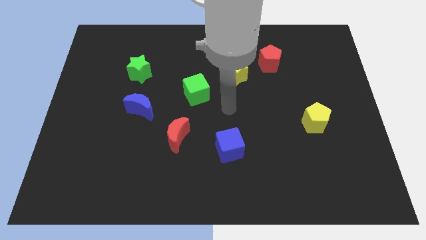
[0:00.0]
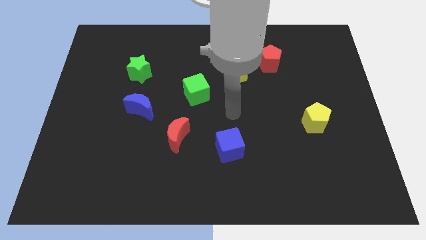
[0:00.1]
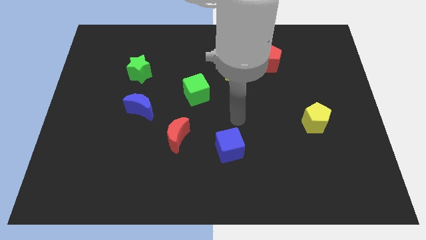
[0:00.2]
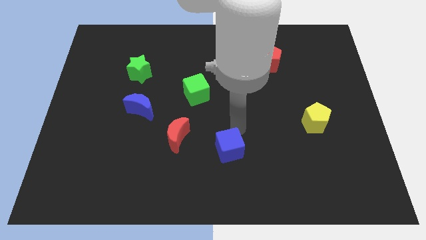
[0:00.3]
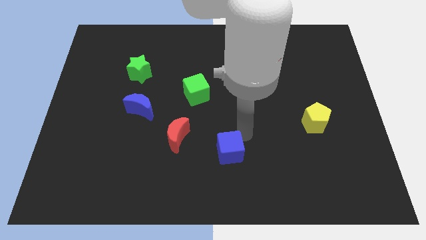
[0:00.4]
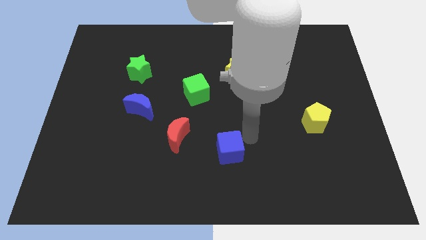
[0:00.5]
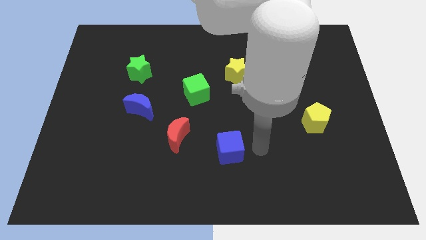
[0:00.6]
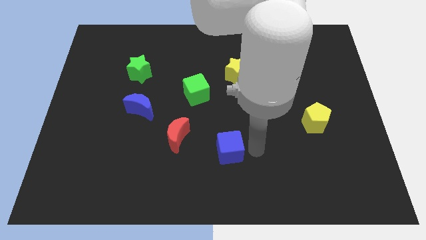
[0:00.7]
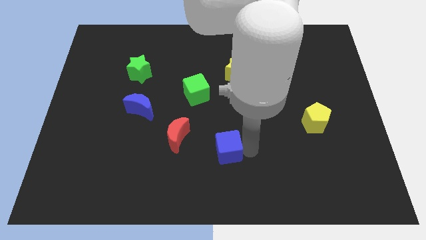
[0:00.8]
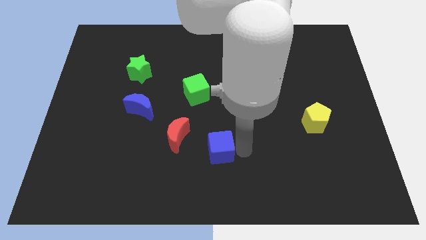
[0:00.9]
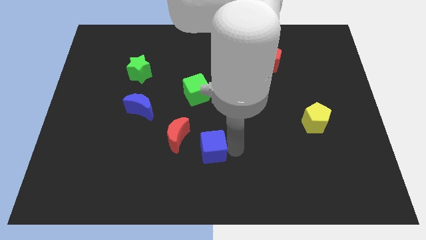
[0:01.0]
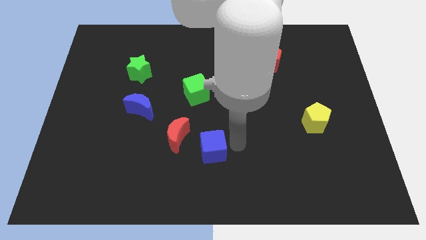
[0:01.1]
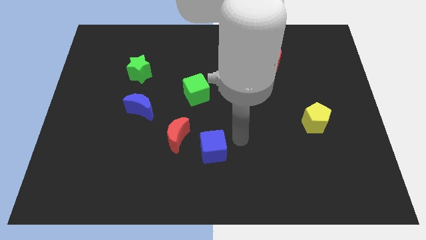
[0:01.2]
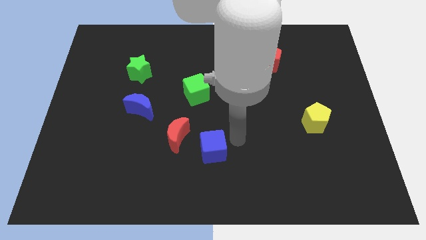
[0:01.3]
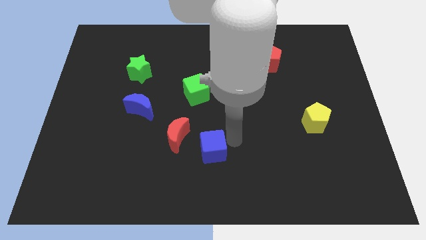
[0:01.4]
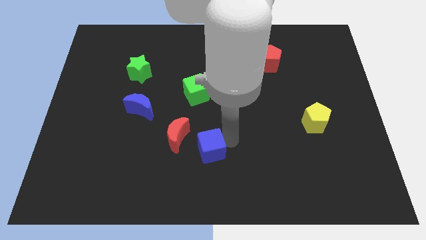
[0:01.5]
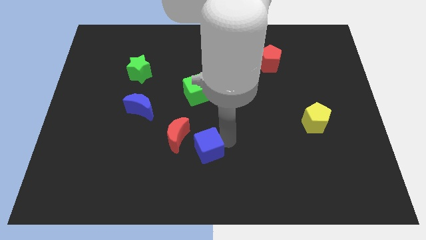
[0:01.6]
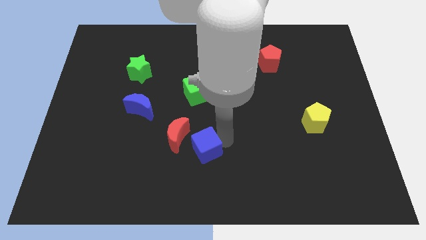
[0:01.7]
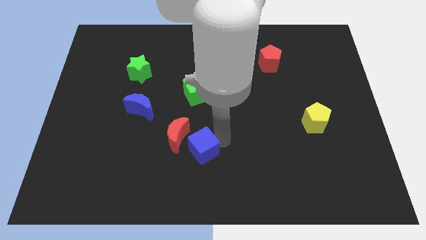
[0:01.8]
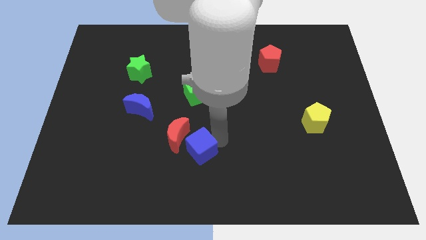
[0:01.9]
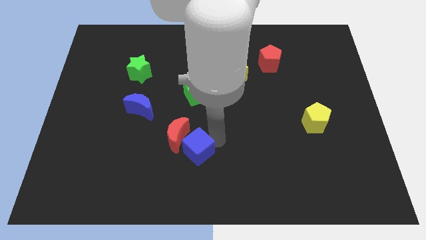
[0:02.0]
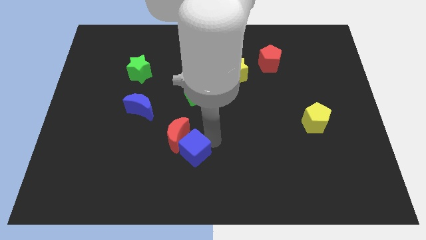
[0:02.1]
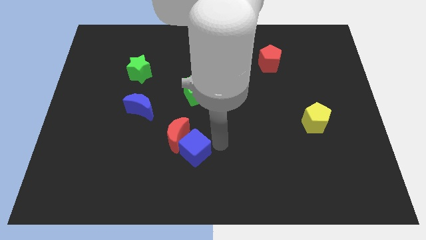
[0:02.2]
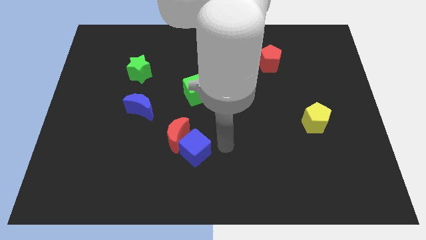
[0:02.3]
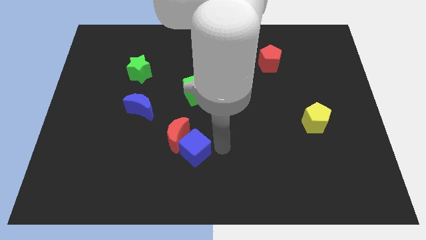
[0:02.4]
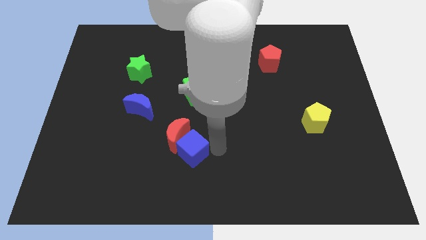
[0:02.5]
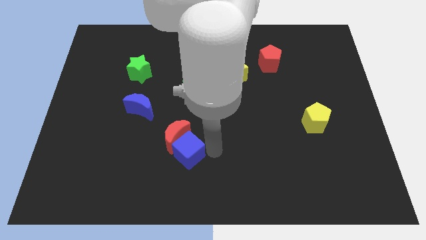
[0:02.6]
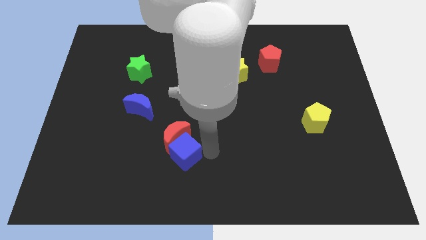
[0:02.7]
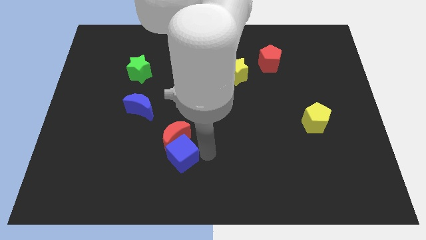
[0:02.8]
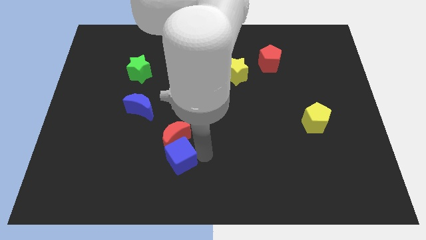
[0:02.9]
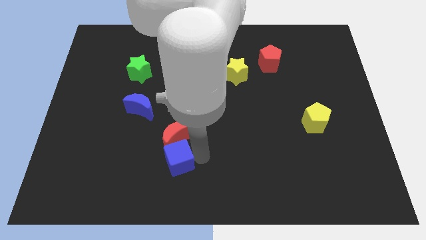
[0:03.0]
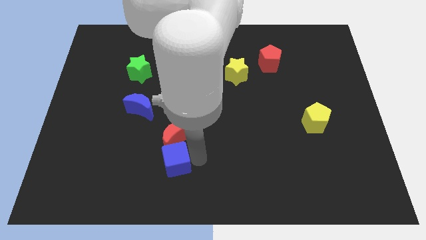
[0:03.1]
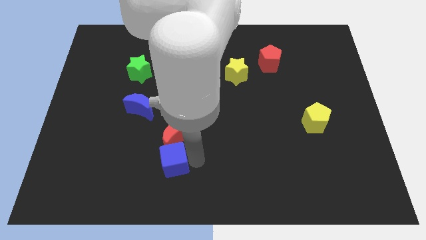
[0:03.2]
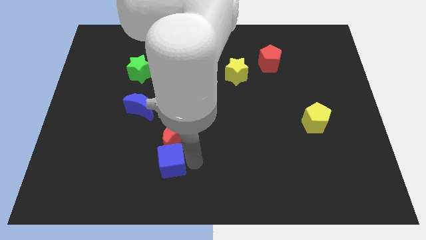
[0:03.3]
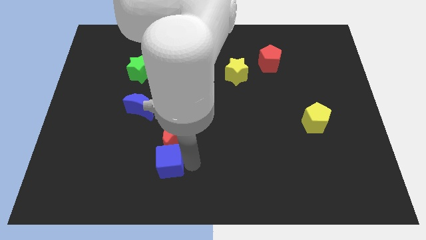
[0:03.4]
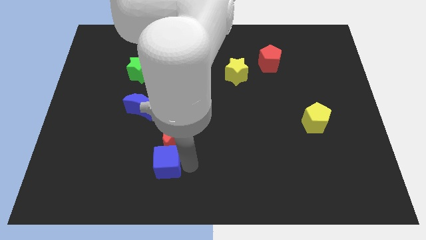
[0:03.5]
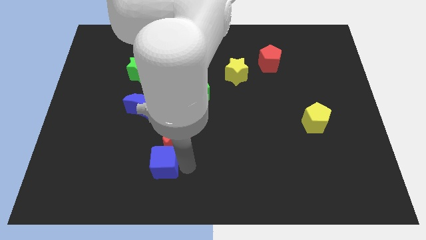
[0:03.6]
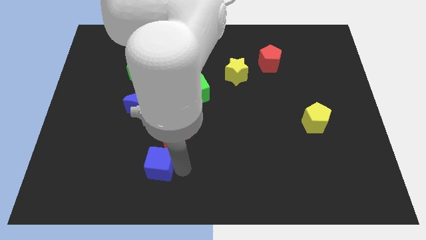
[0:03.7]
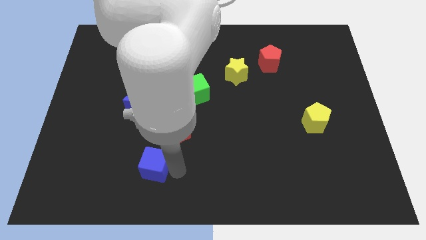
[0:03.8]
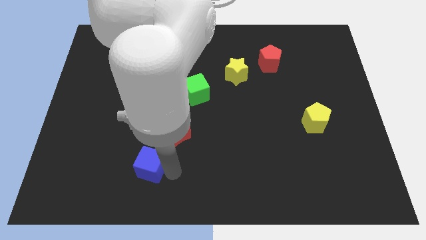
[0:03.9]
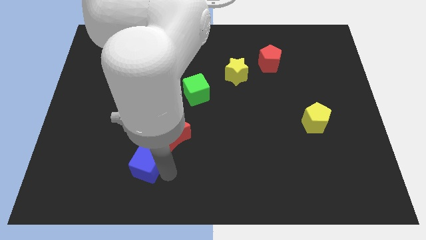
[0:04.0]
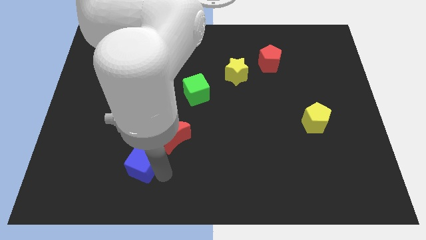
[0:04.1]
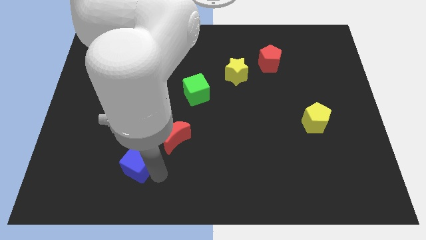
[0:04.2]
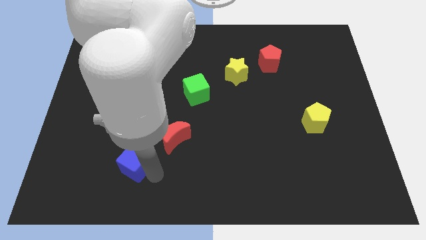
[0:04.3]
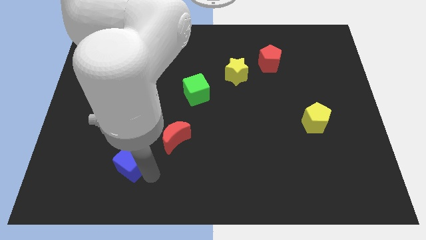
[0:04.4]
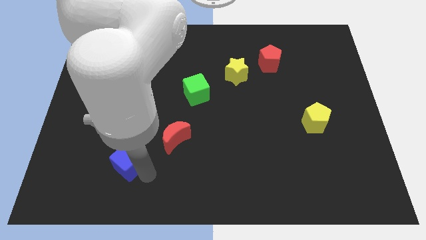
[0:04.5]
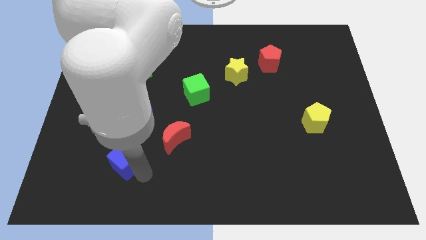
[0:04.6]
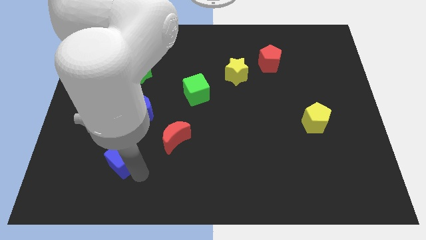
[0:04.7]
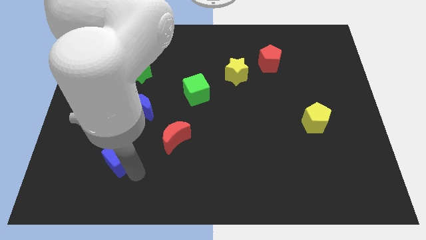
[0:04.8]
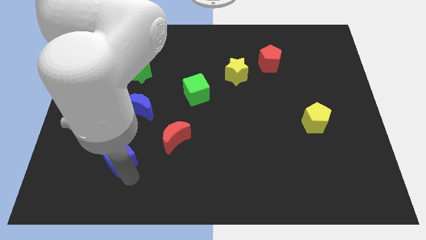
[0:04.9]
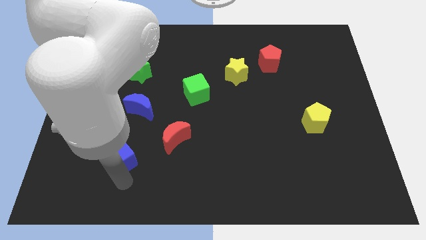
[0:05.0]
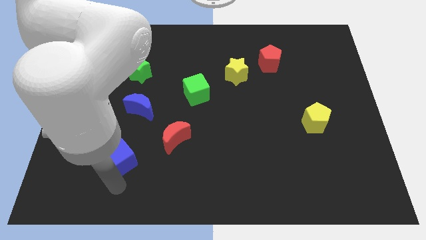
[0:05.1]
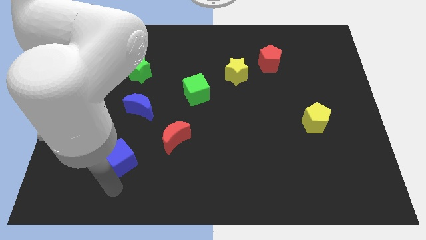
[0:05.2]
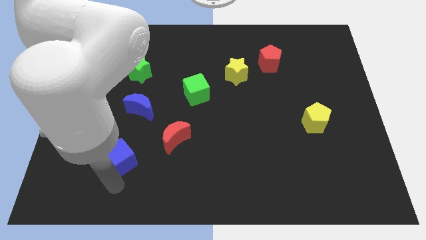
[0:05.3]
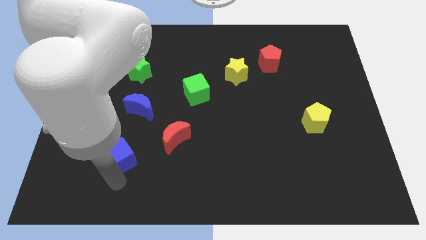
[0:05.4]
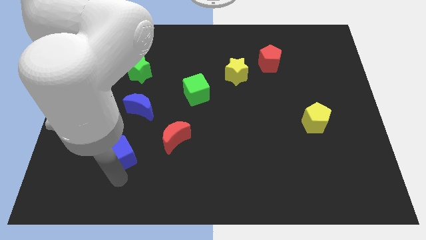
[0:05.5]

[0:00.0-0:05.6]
put the blue cube to the left of the red moon

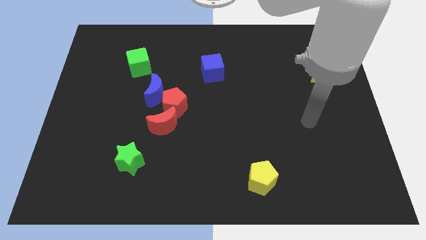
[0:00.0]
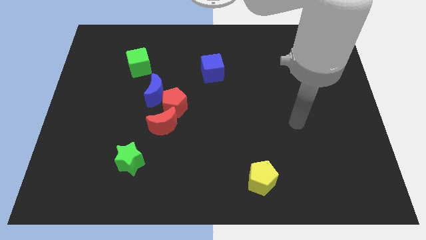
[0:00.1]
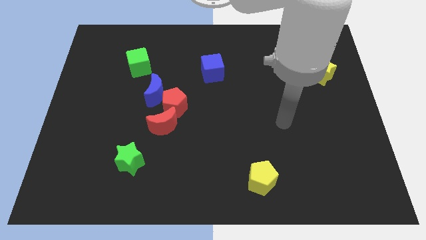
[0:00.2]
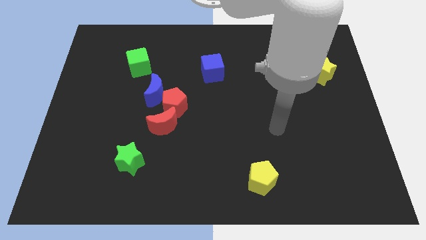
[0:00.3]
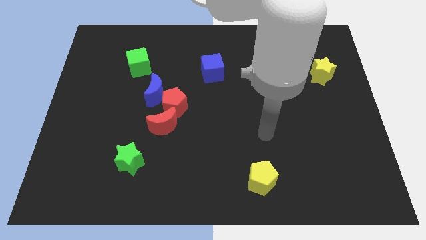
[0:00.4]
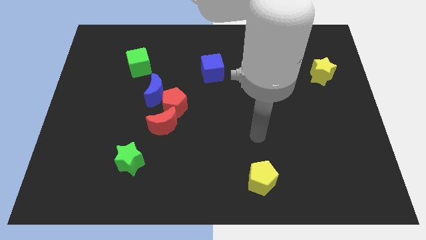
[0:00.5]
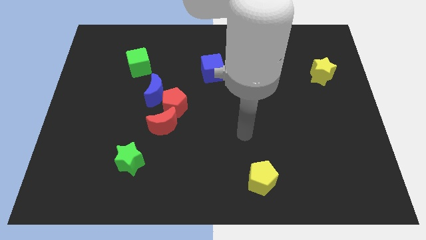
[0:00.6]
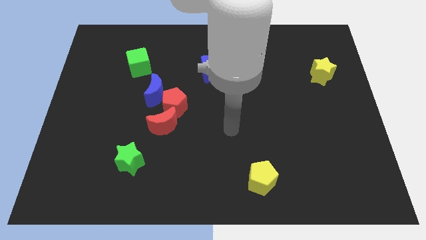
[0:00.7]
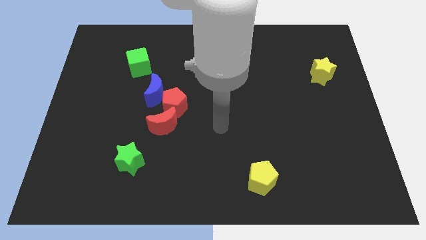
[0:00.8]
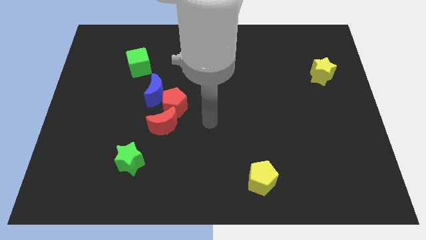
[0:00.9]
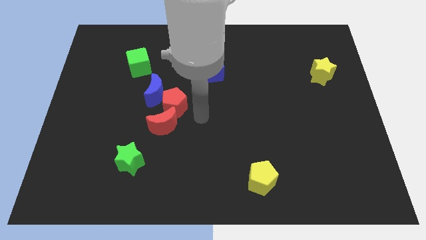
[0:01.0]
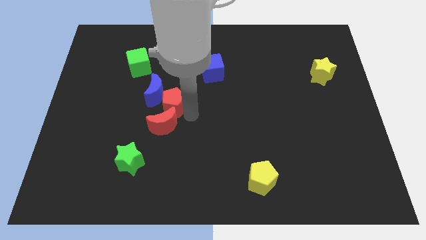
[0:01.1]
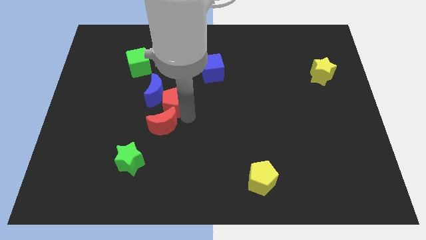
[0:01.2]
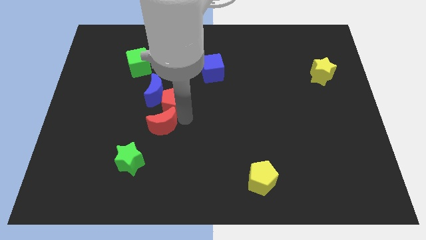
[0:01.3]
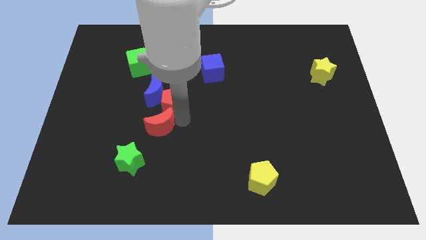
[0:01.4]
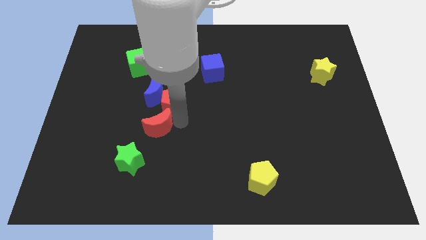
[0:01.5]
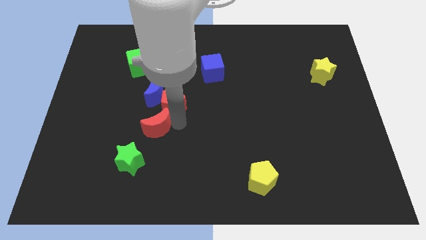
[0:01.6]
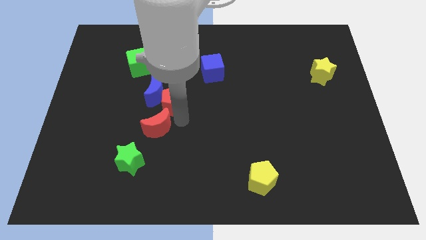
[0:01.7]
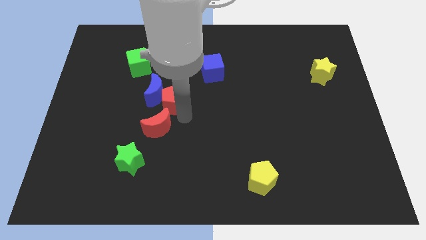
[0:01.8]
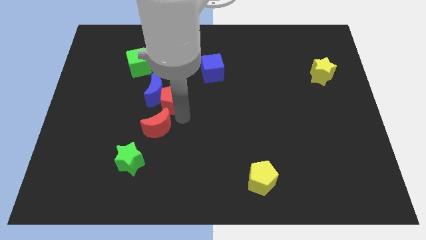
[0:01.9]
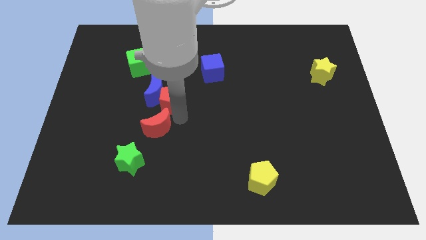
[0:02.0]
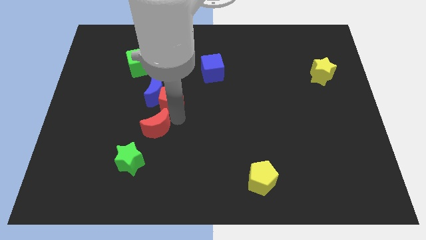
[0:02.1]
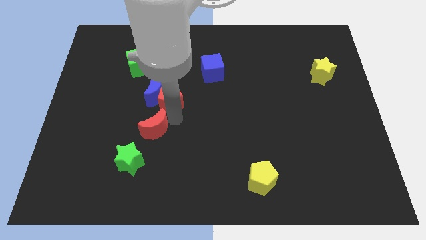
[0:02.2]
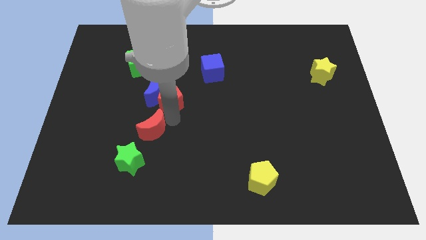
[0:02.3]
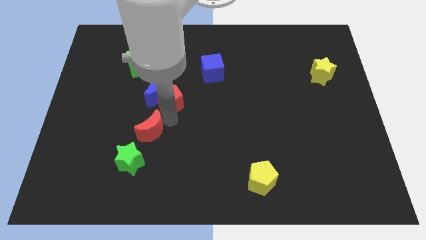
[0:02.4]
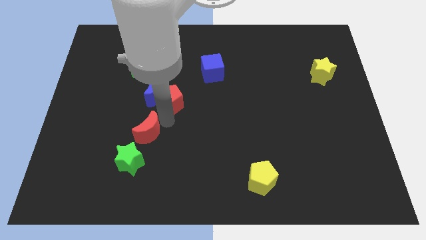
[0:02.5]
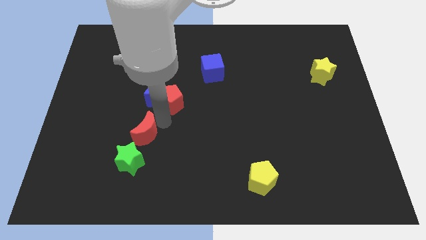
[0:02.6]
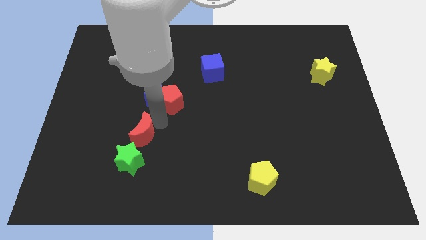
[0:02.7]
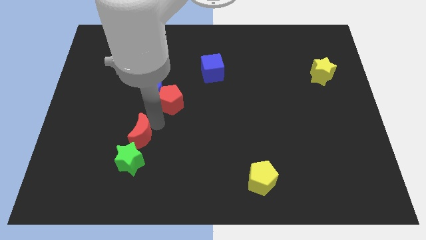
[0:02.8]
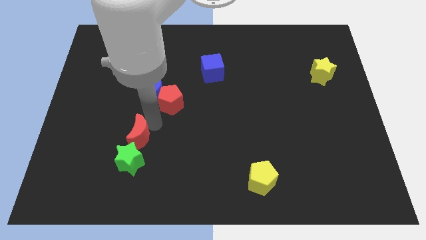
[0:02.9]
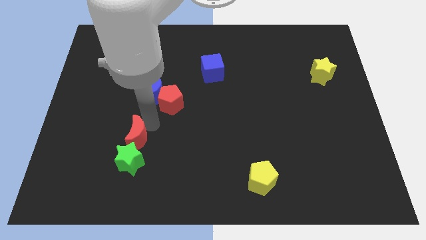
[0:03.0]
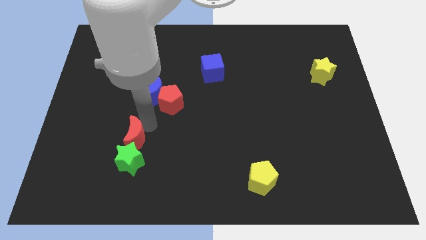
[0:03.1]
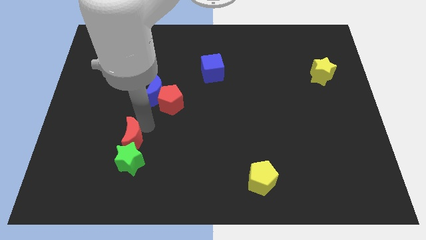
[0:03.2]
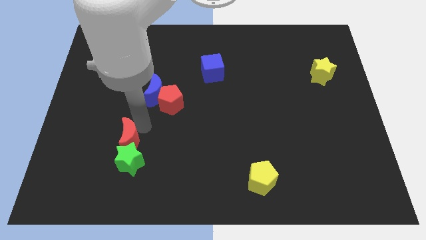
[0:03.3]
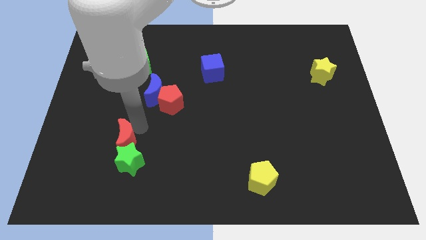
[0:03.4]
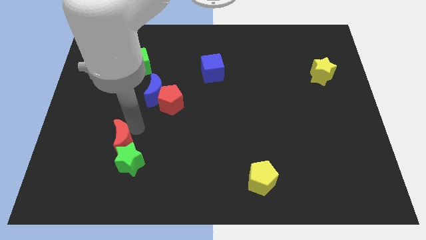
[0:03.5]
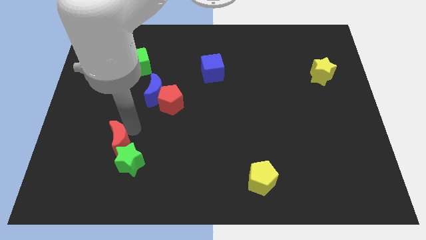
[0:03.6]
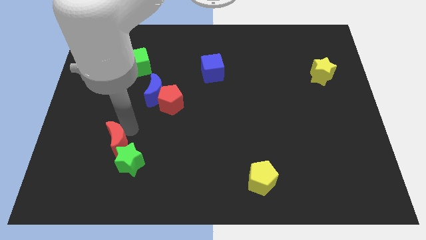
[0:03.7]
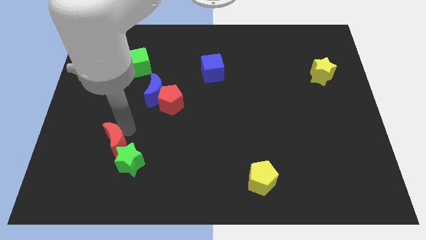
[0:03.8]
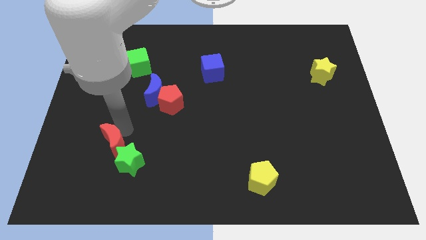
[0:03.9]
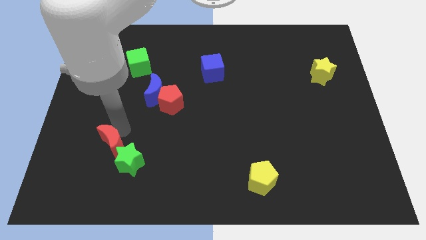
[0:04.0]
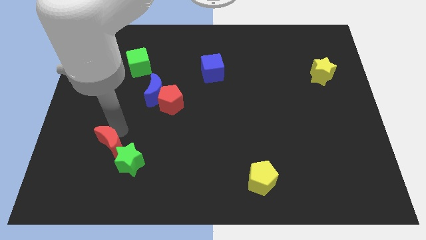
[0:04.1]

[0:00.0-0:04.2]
slide the red moon just left of the green star
